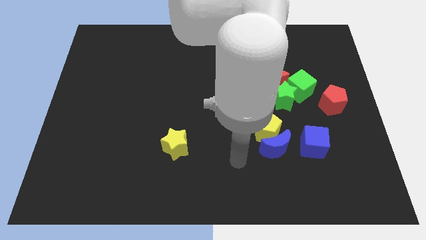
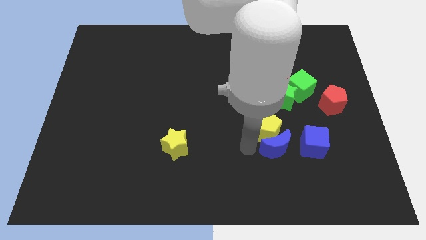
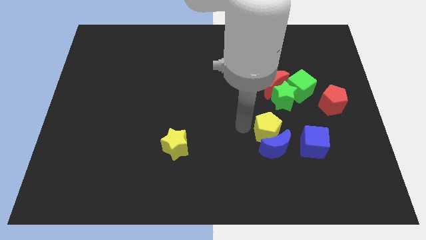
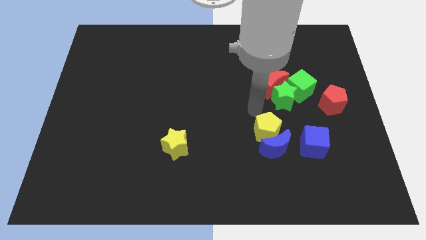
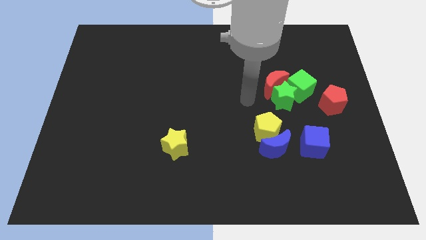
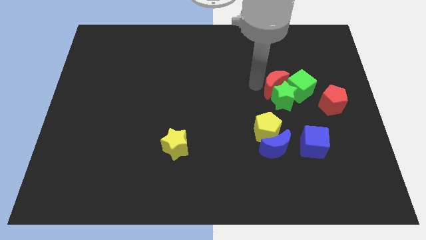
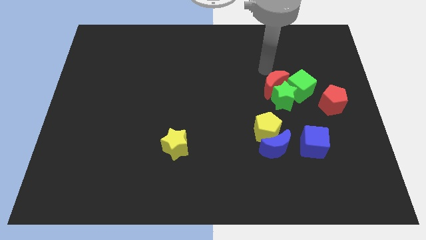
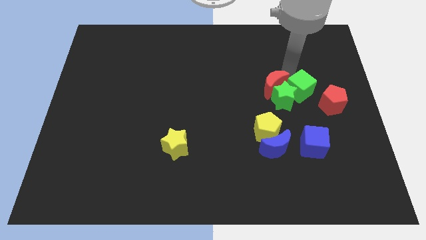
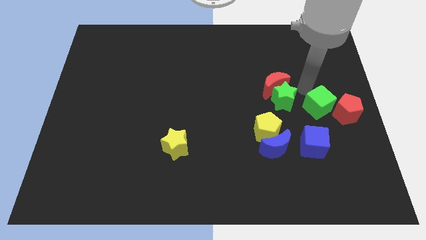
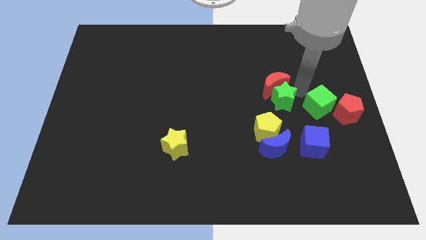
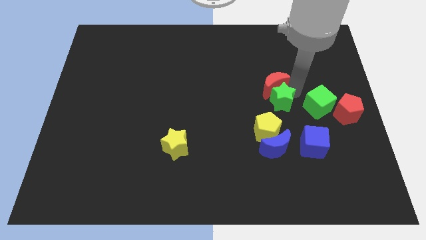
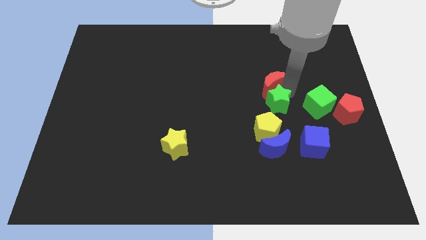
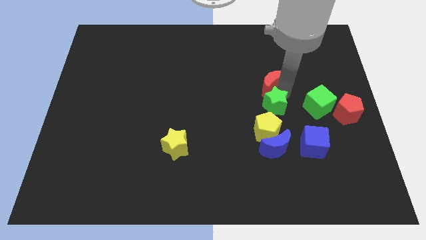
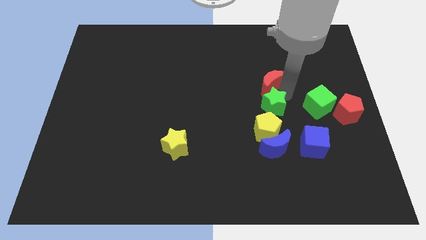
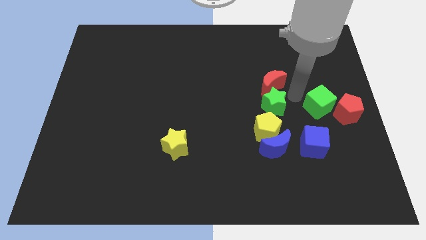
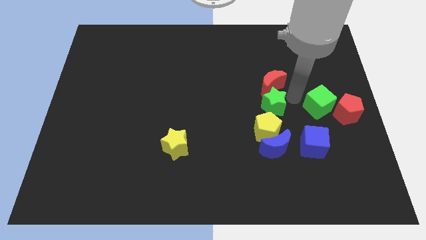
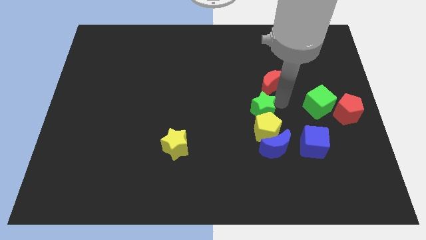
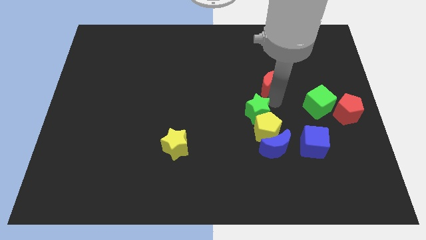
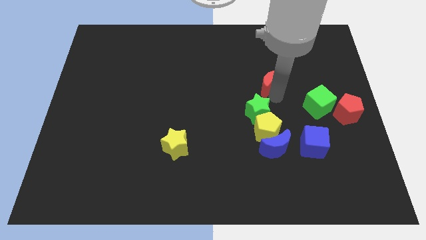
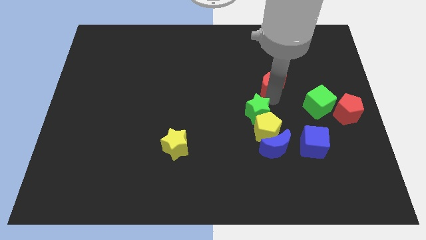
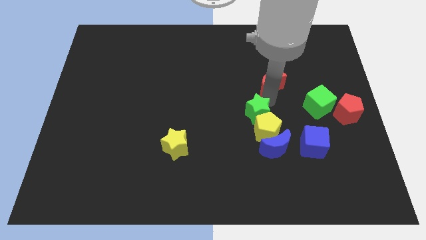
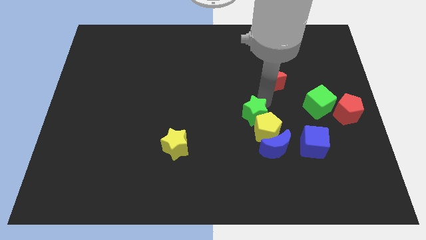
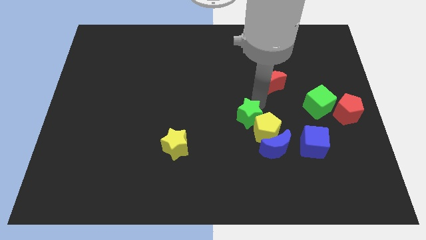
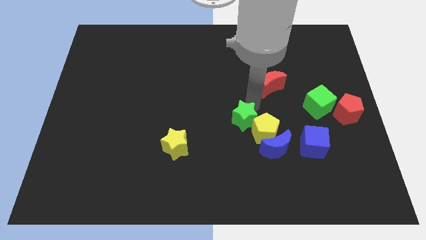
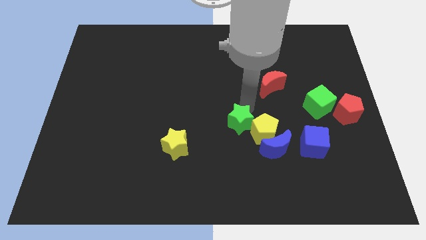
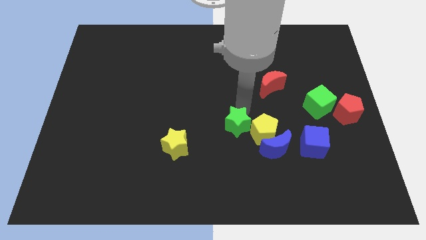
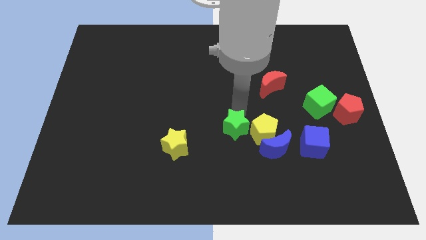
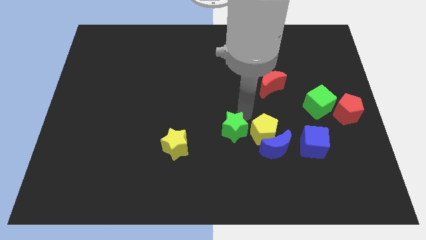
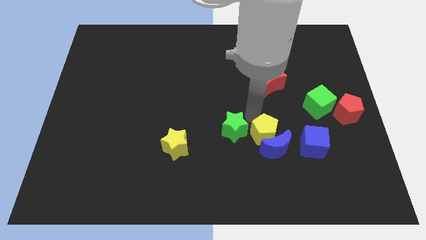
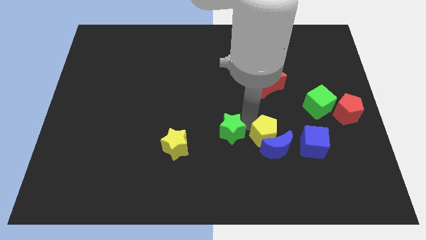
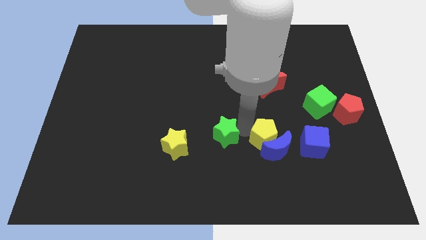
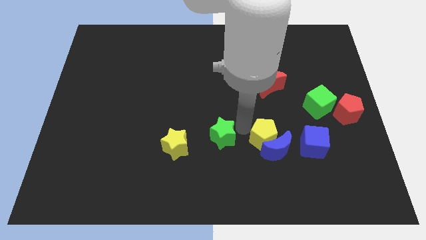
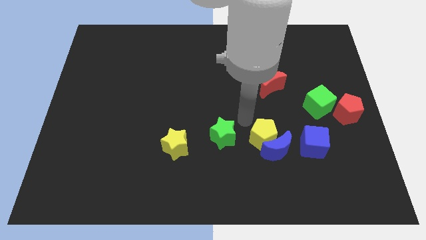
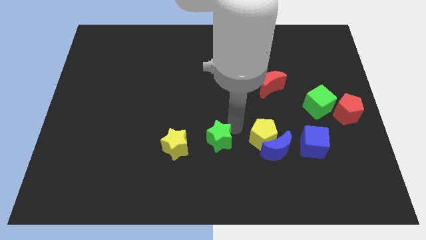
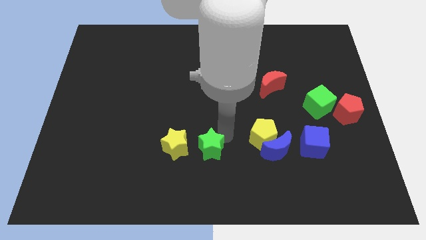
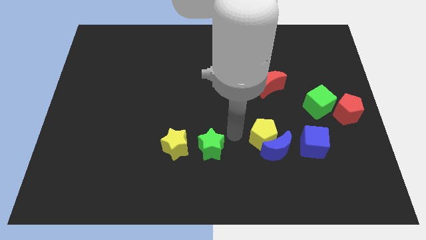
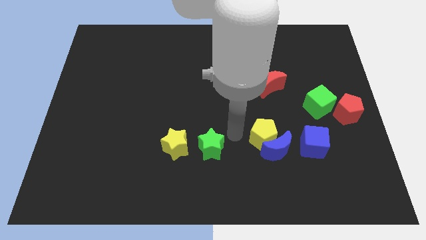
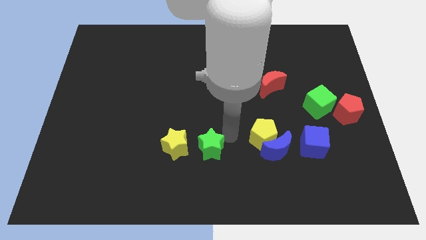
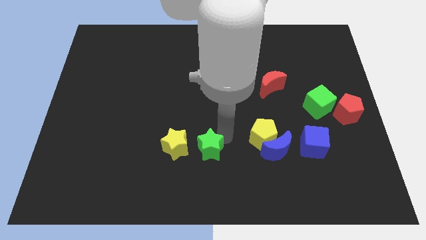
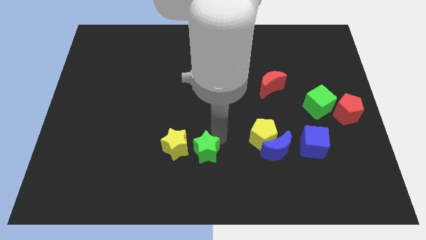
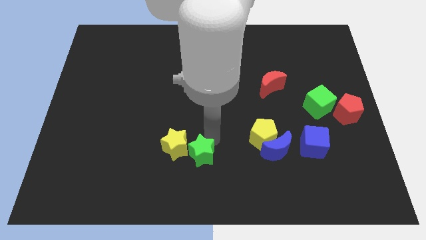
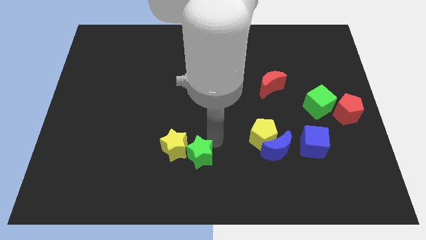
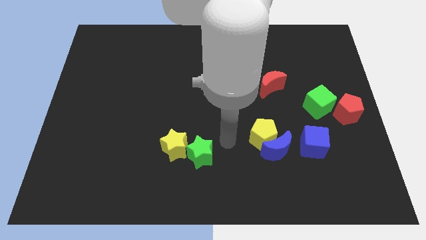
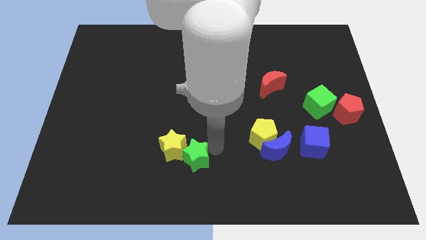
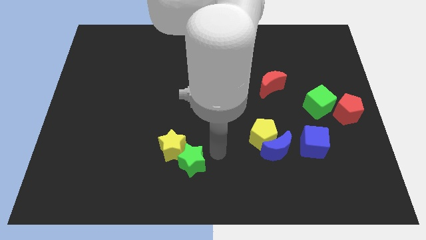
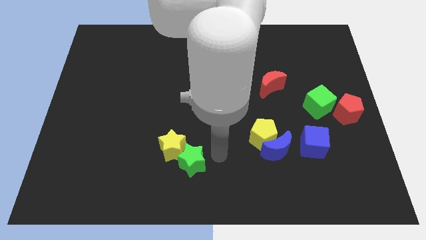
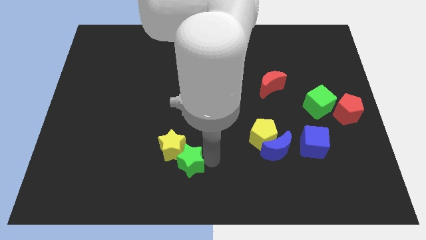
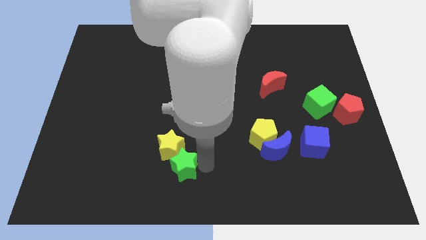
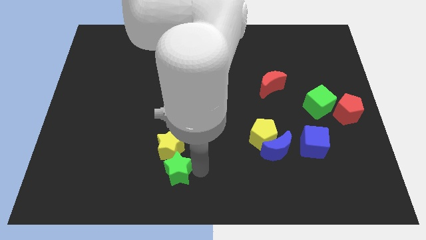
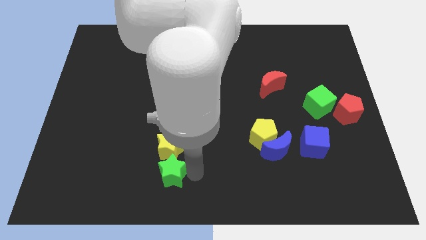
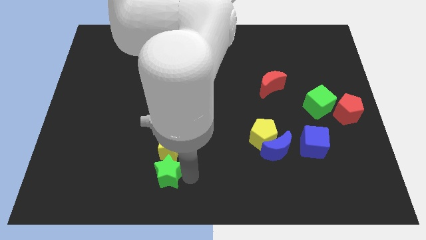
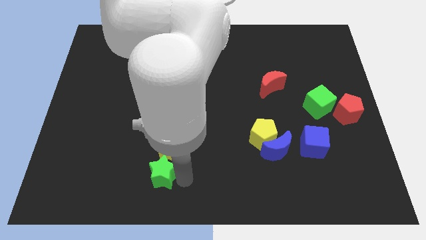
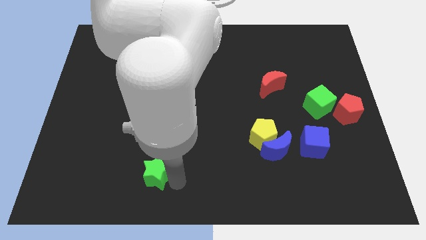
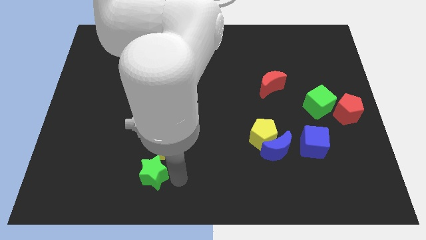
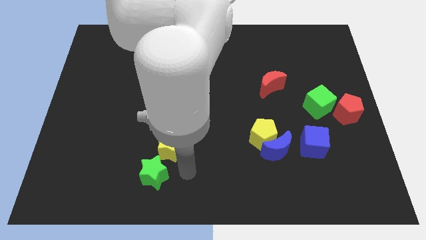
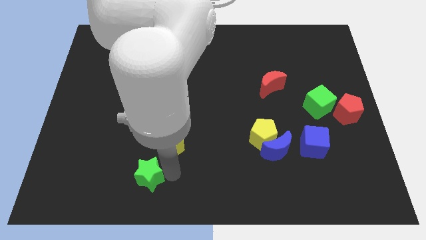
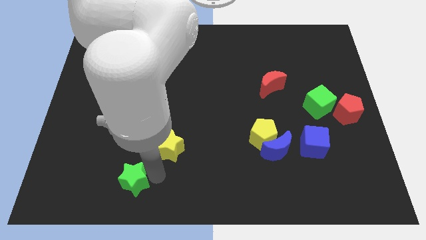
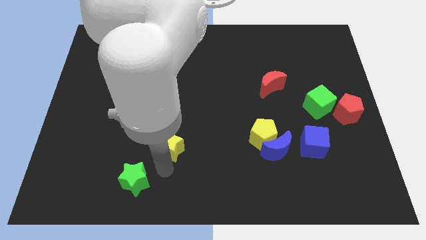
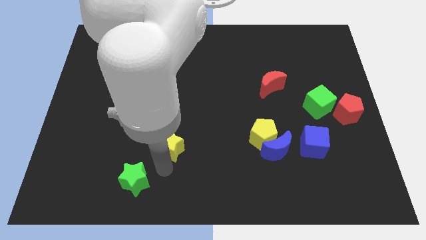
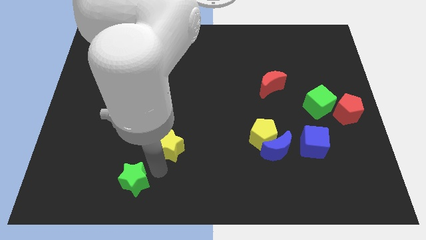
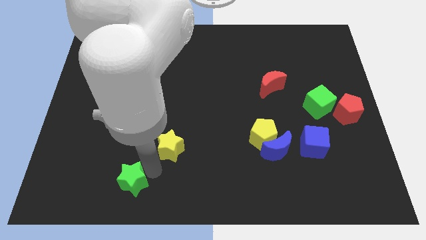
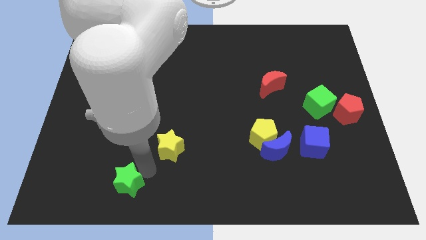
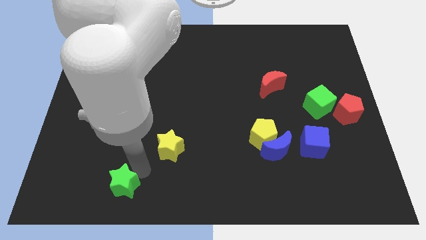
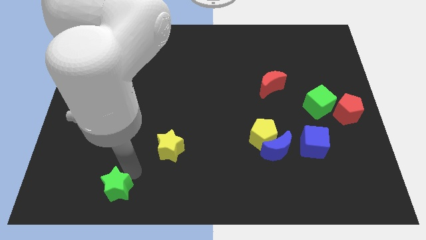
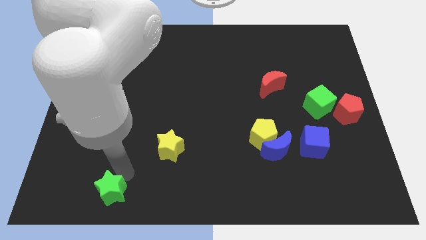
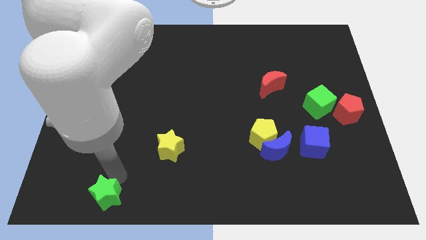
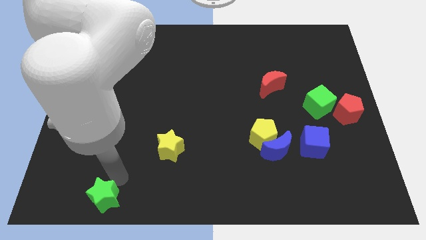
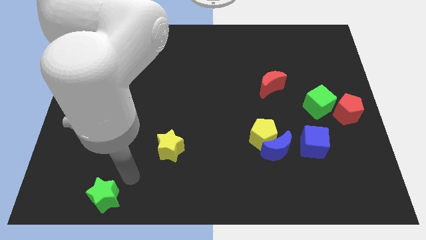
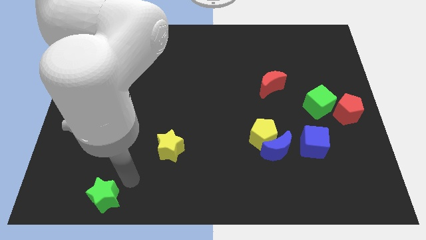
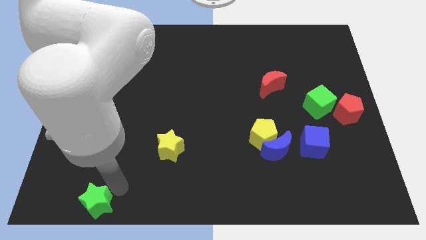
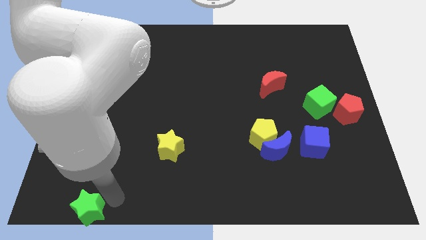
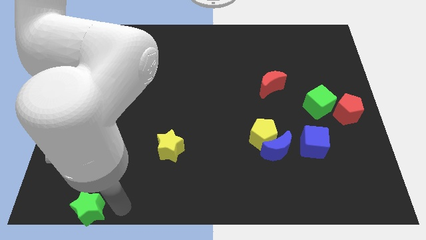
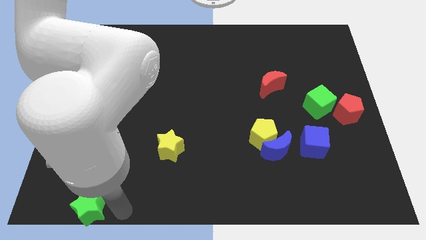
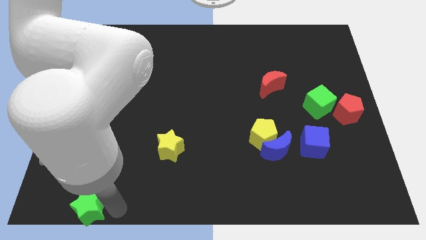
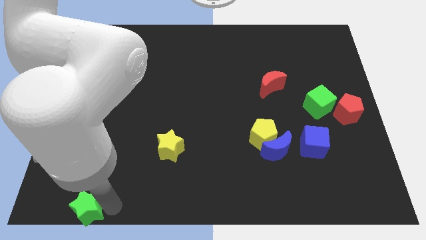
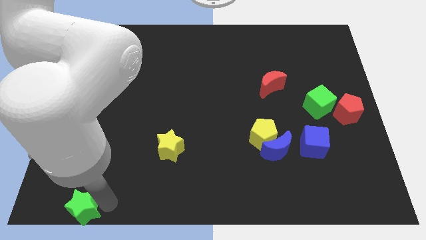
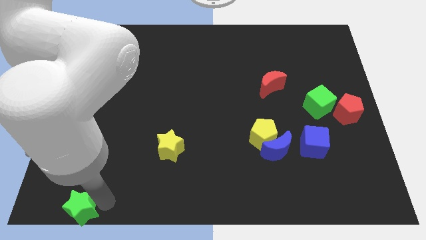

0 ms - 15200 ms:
move the green star to the bottom left corner

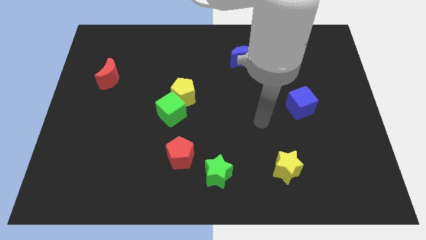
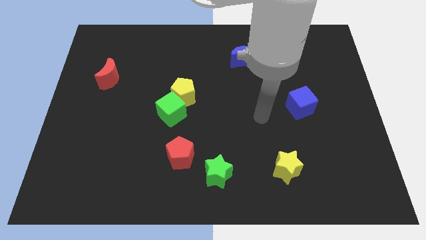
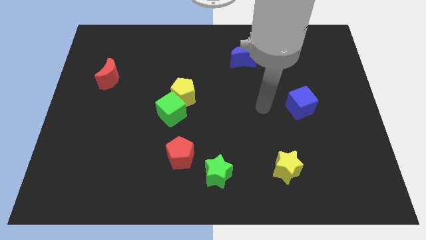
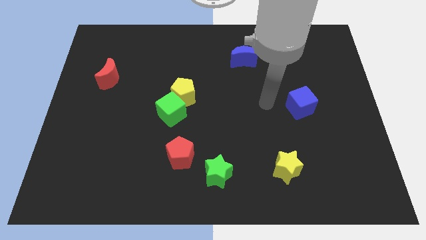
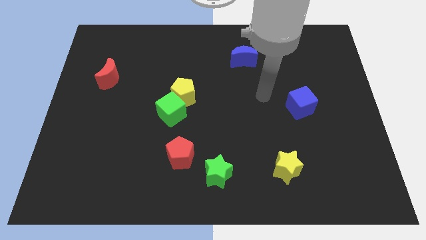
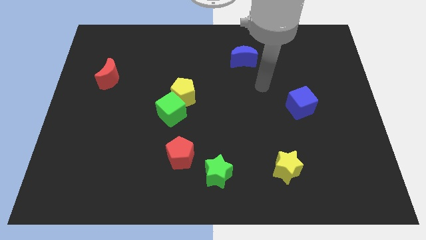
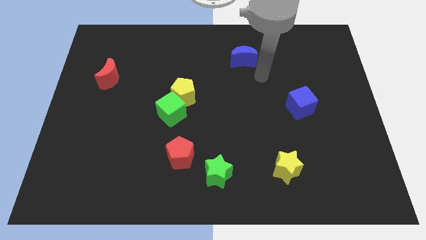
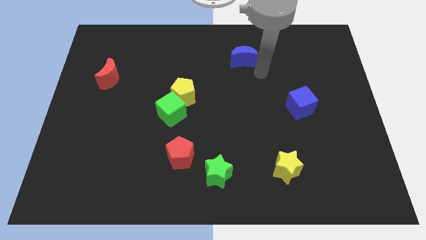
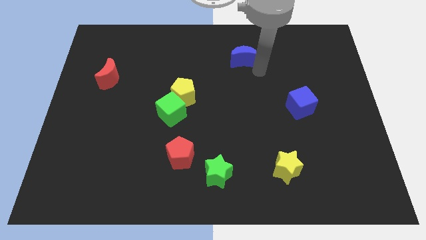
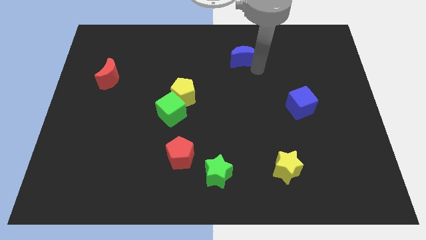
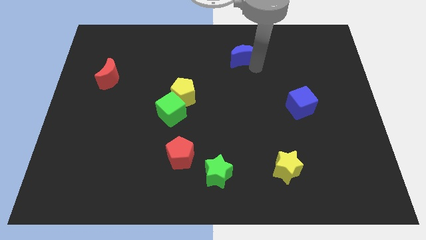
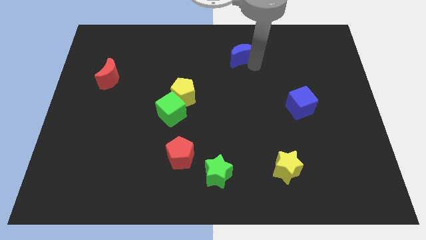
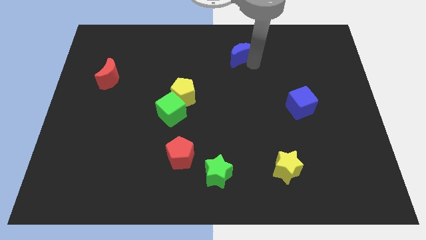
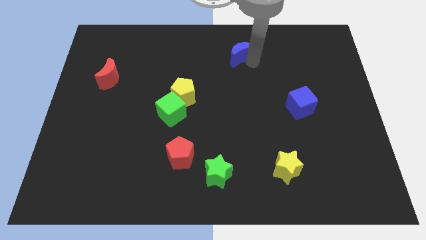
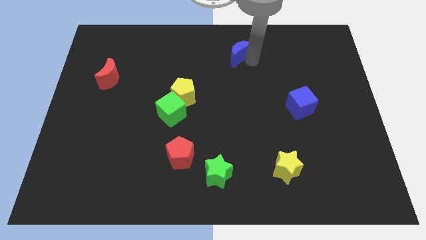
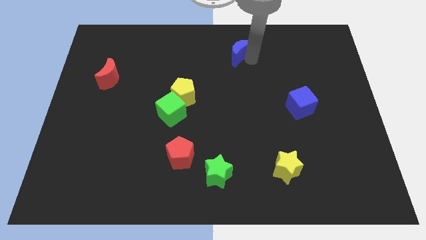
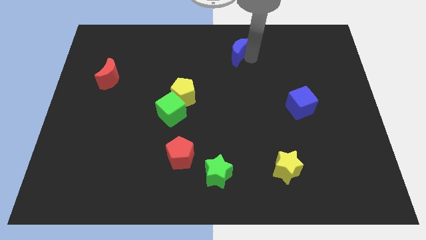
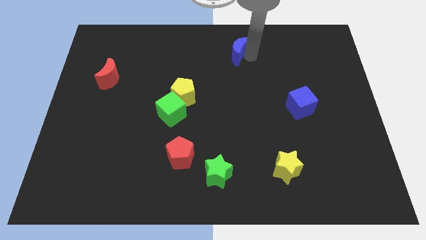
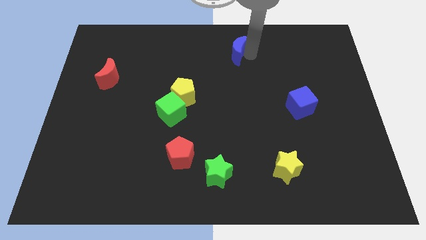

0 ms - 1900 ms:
put the blue moon to the top
